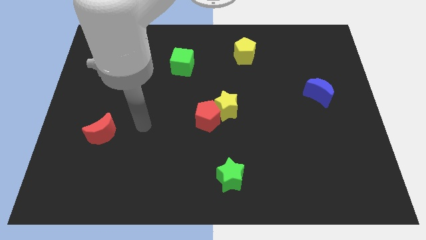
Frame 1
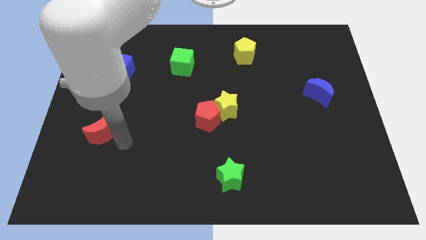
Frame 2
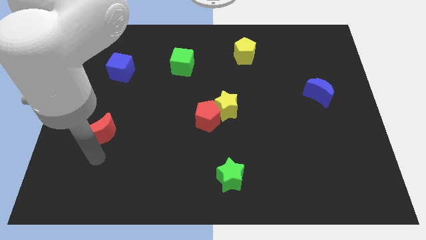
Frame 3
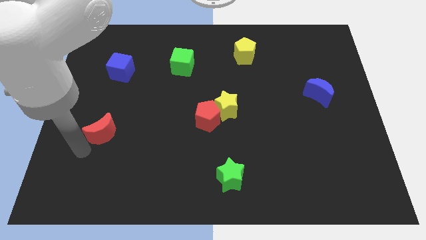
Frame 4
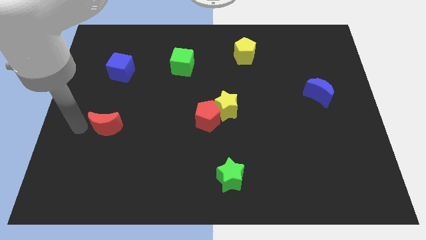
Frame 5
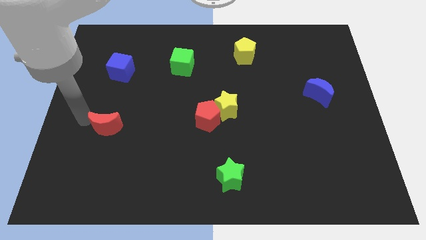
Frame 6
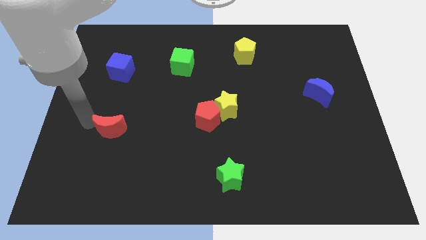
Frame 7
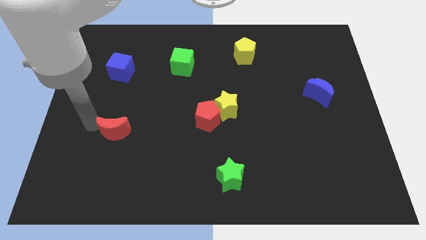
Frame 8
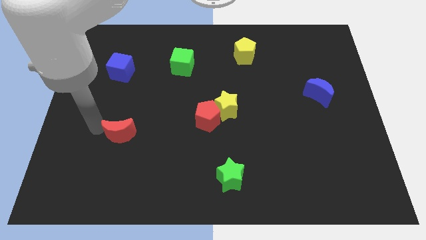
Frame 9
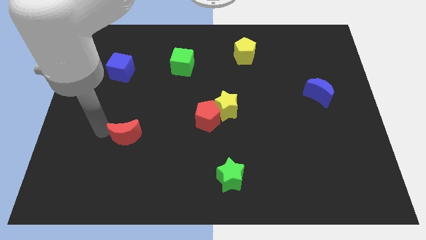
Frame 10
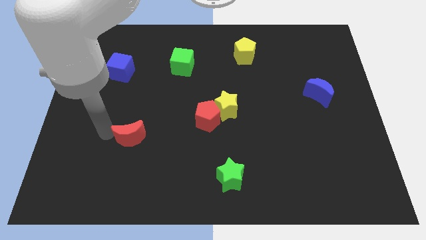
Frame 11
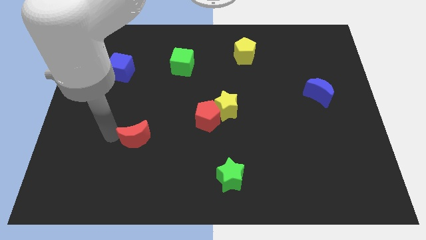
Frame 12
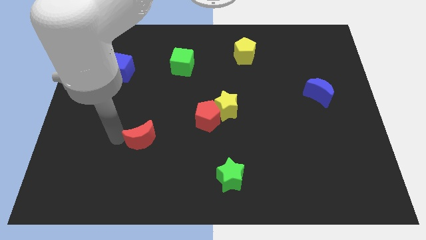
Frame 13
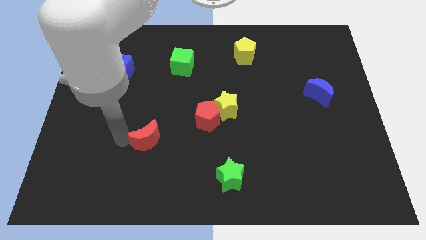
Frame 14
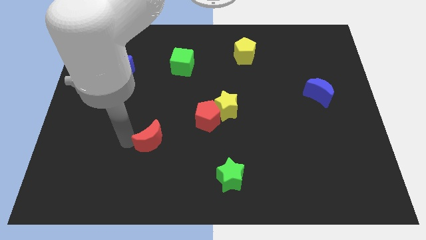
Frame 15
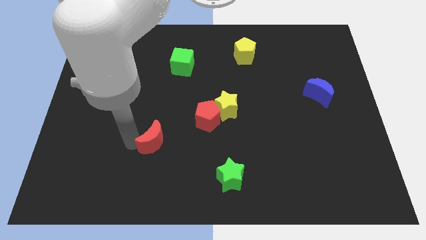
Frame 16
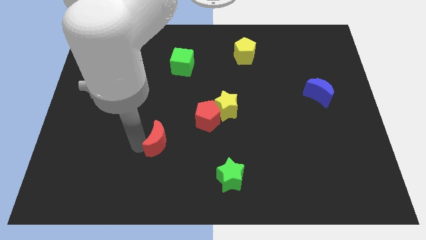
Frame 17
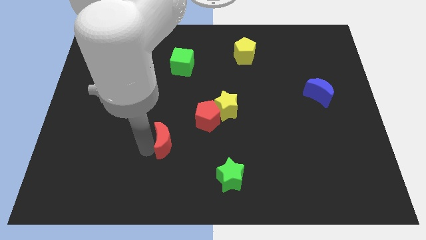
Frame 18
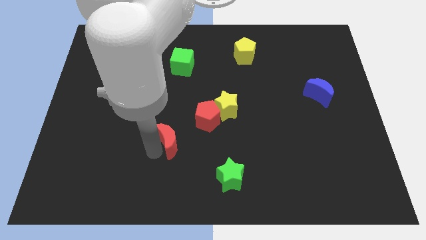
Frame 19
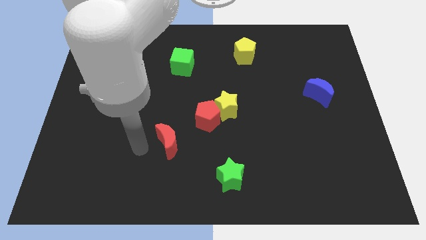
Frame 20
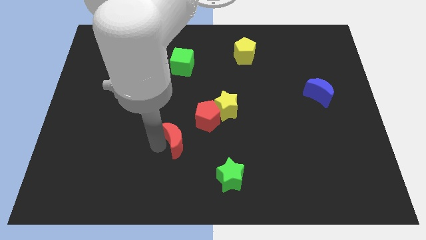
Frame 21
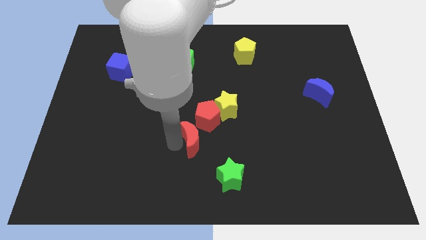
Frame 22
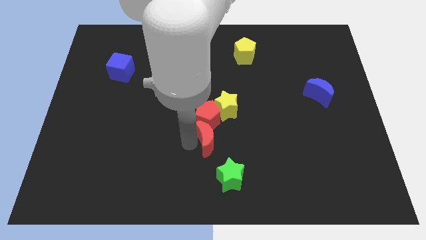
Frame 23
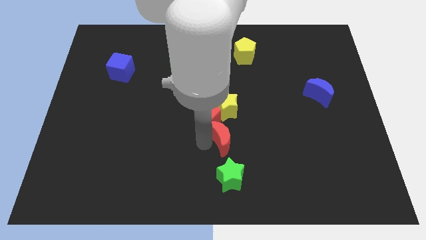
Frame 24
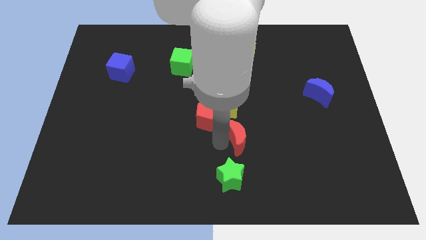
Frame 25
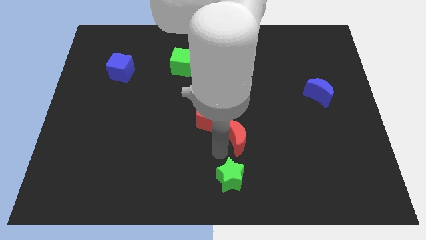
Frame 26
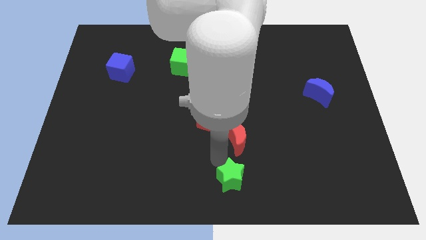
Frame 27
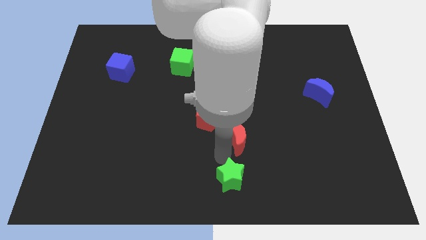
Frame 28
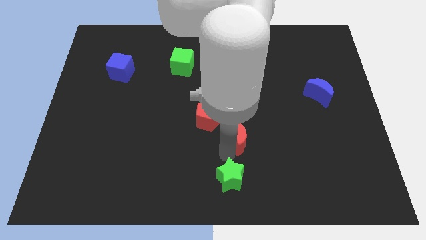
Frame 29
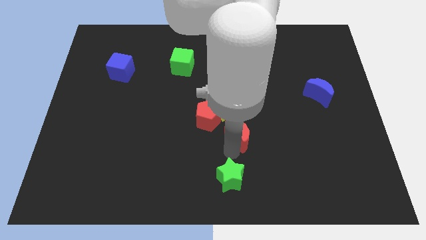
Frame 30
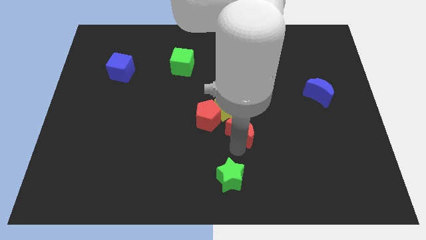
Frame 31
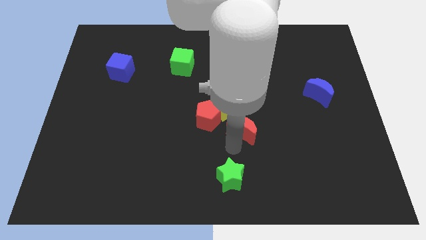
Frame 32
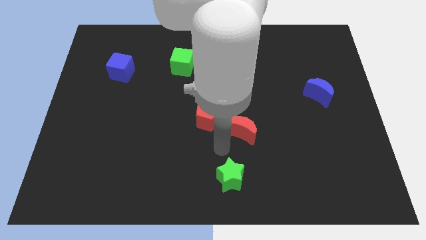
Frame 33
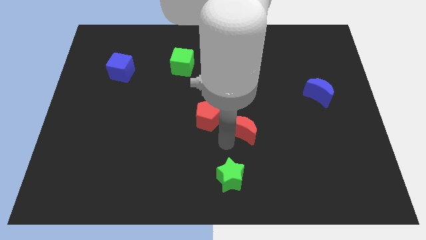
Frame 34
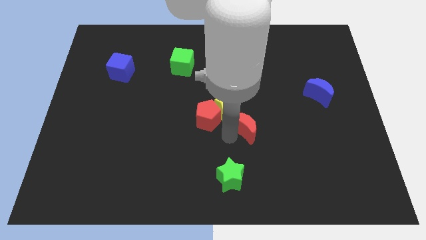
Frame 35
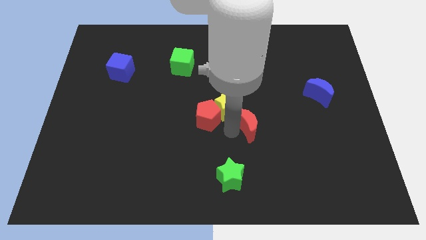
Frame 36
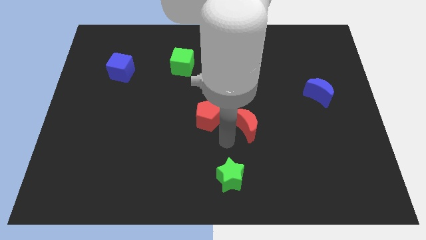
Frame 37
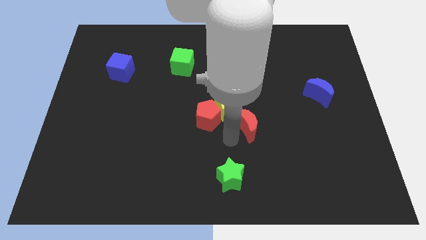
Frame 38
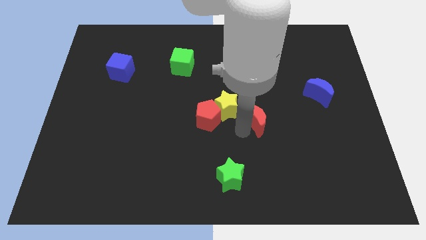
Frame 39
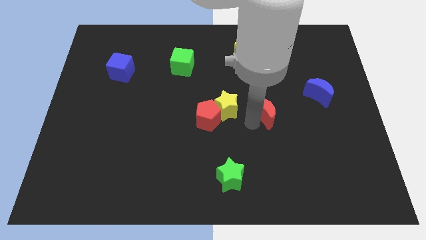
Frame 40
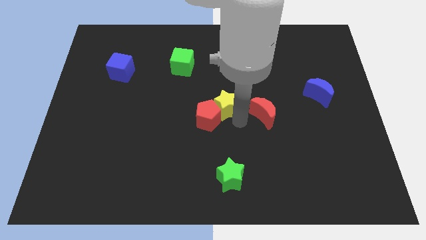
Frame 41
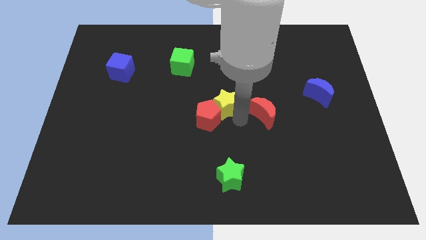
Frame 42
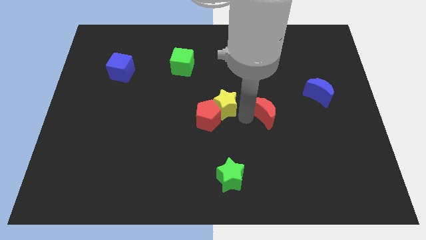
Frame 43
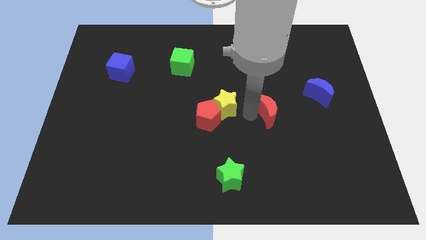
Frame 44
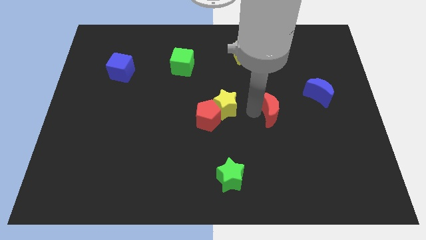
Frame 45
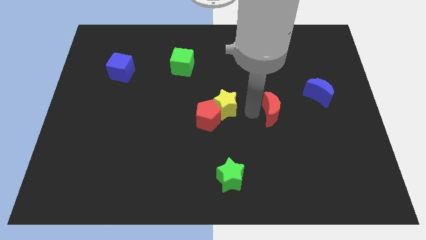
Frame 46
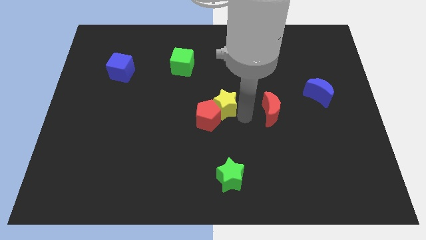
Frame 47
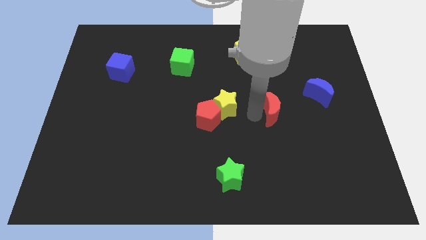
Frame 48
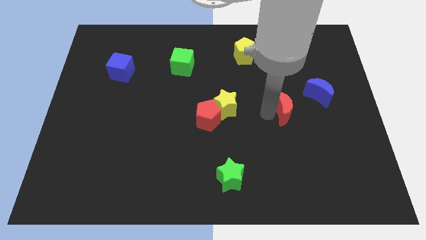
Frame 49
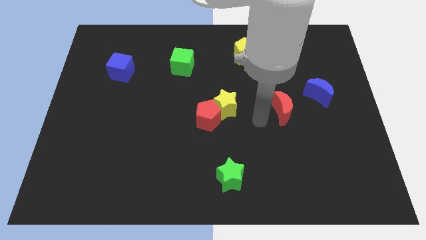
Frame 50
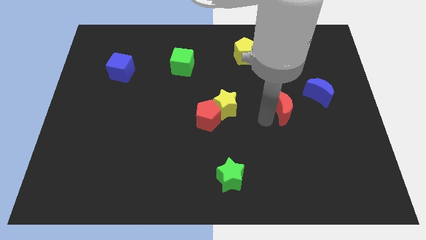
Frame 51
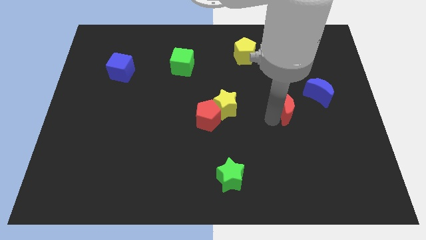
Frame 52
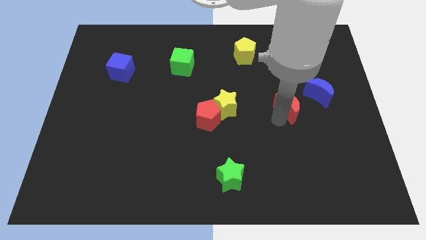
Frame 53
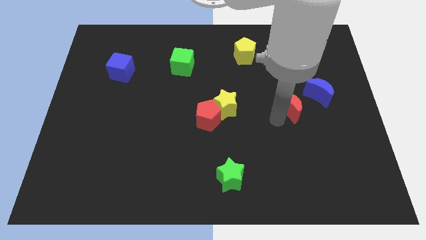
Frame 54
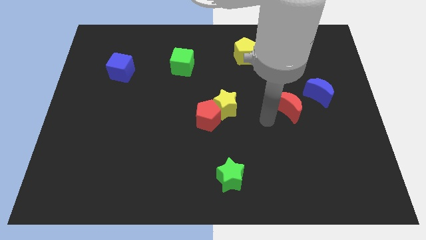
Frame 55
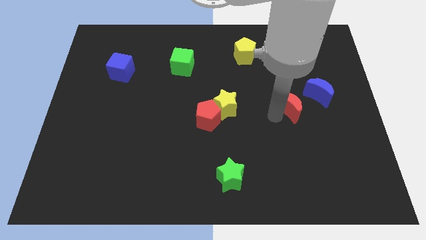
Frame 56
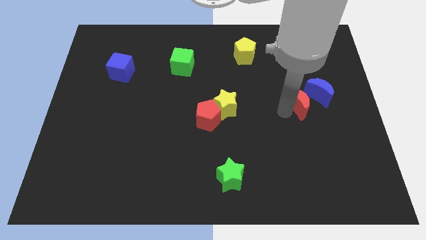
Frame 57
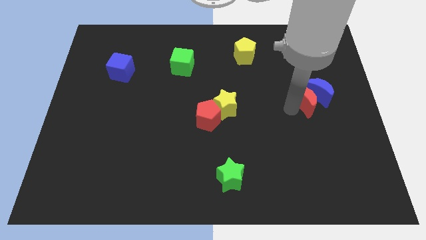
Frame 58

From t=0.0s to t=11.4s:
put the red moon to the blue moon

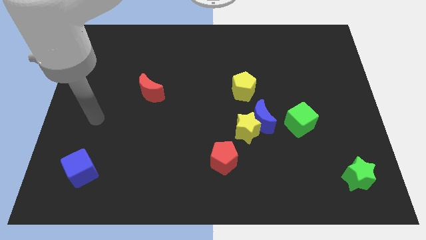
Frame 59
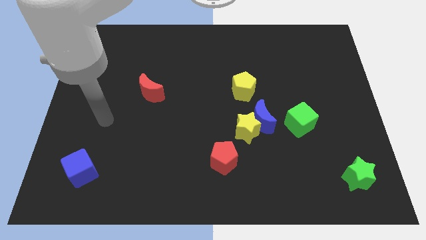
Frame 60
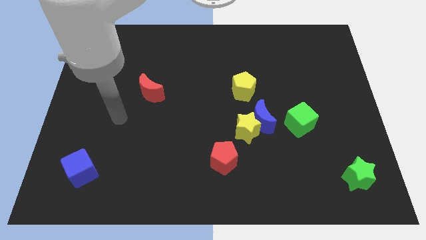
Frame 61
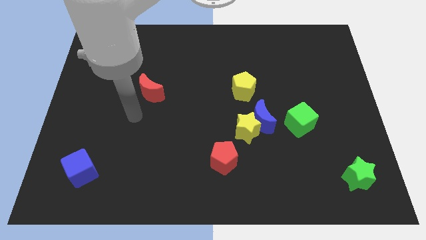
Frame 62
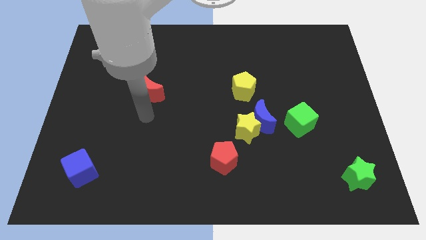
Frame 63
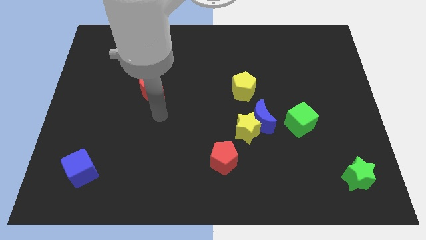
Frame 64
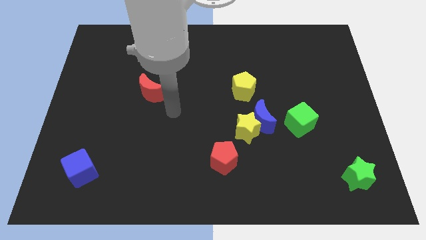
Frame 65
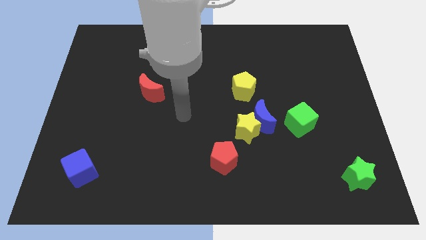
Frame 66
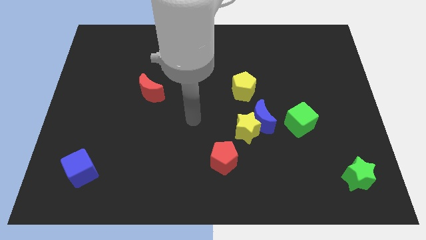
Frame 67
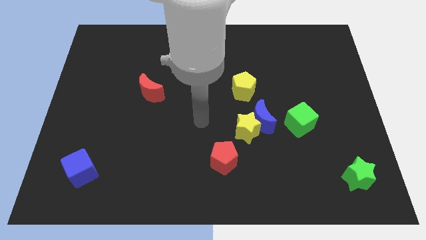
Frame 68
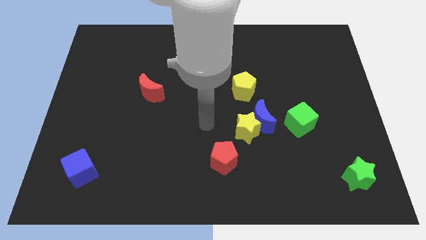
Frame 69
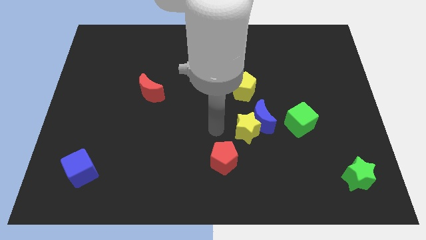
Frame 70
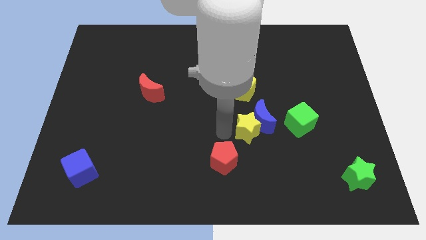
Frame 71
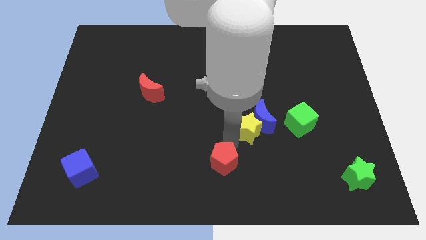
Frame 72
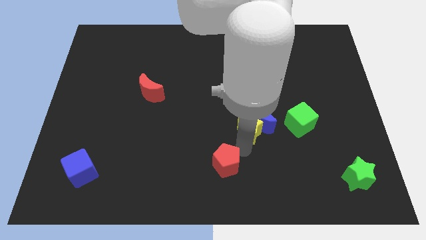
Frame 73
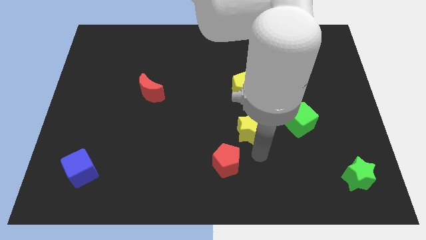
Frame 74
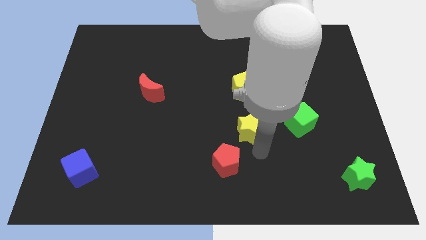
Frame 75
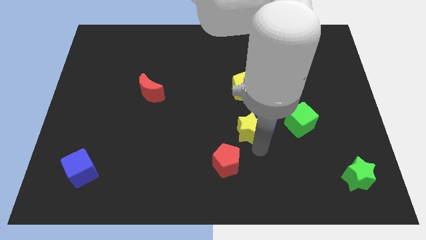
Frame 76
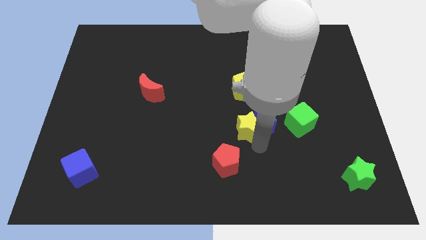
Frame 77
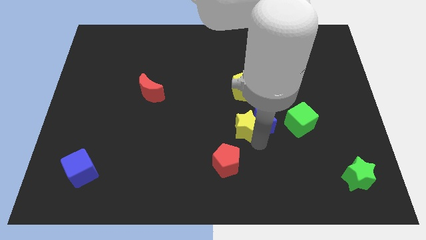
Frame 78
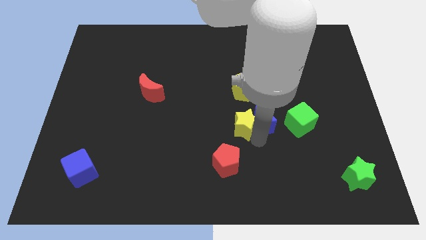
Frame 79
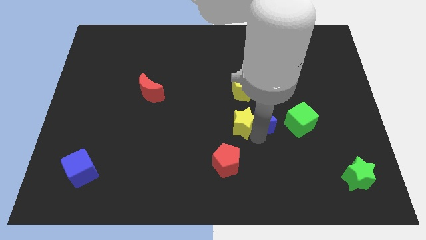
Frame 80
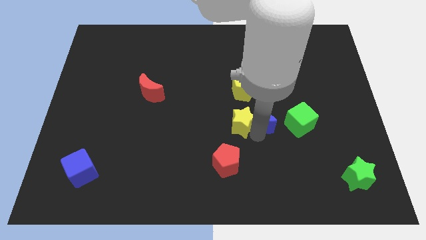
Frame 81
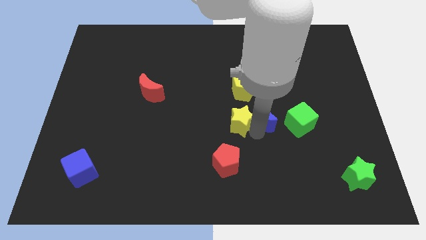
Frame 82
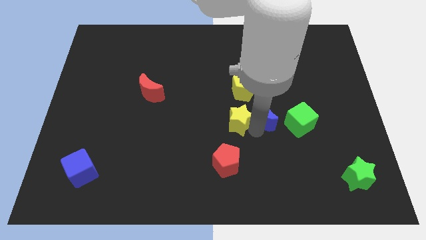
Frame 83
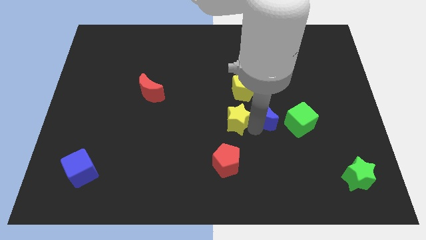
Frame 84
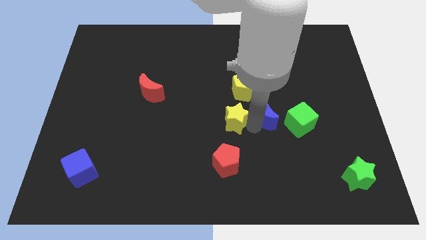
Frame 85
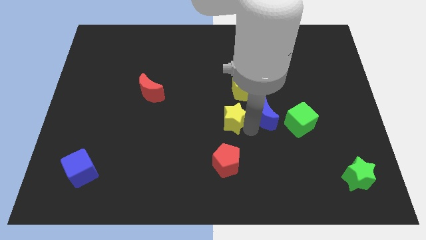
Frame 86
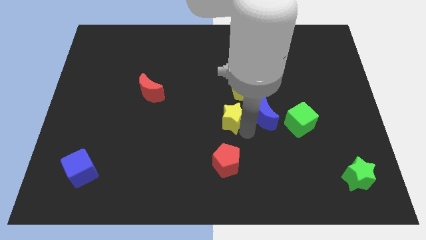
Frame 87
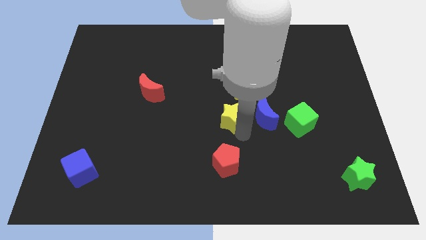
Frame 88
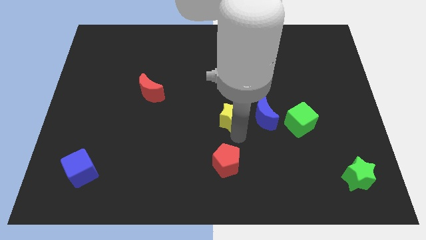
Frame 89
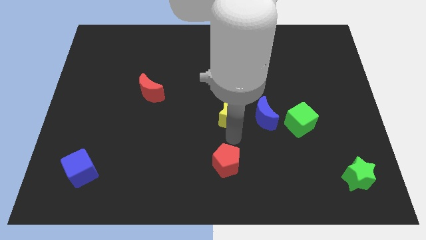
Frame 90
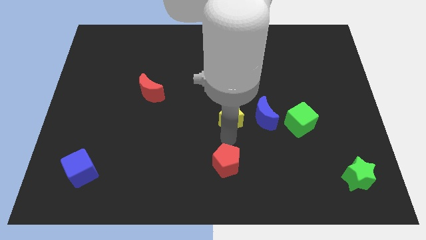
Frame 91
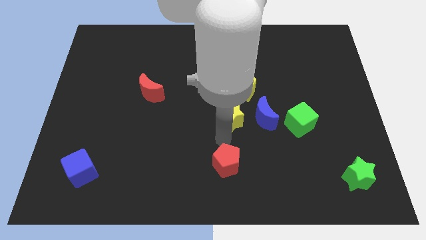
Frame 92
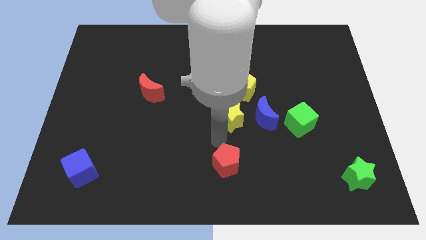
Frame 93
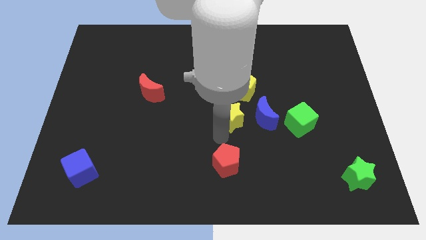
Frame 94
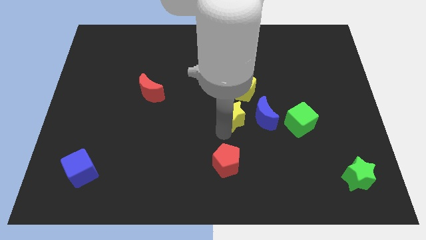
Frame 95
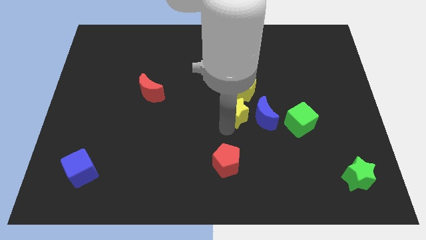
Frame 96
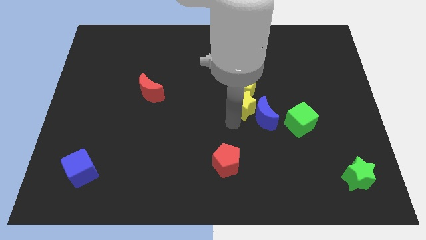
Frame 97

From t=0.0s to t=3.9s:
put the yellow star to the yellow pentagon
